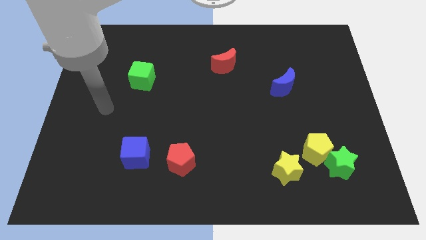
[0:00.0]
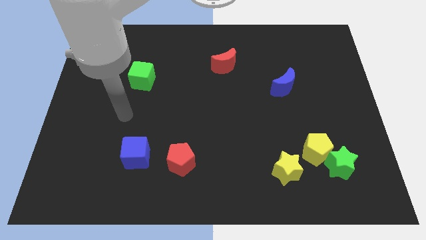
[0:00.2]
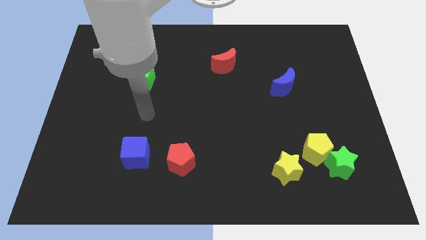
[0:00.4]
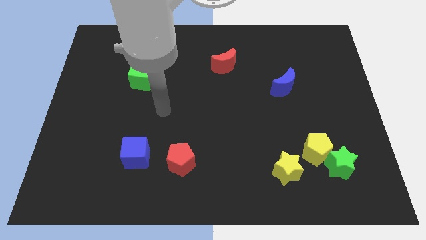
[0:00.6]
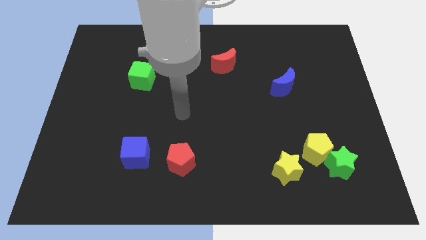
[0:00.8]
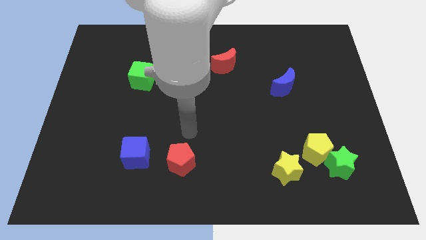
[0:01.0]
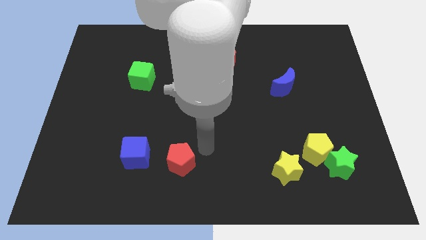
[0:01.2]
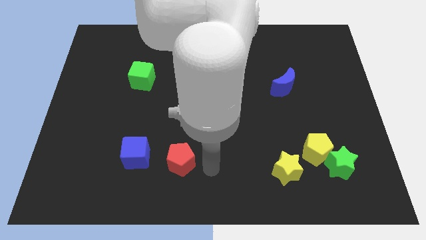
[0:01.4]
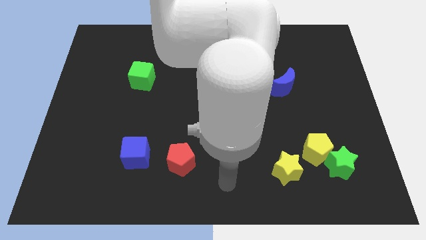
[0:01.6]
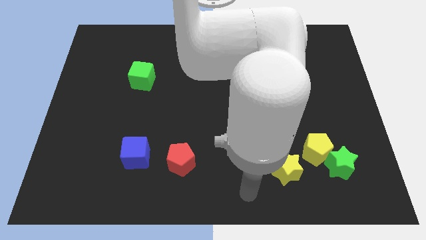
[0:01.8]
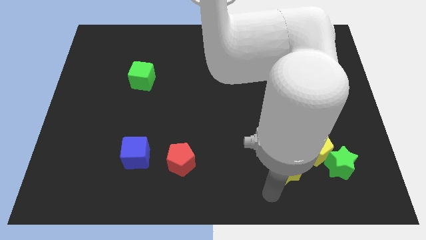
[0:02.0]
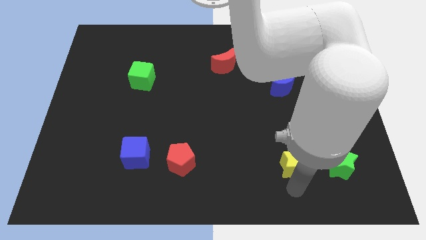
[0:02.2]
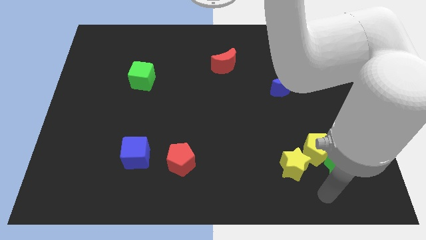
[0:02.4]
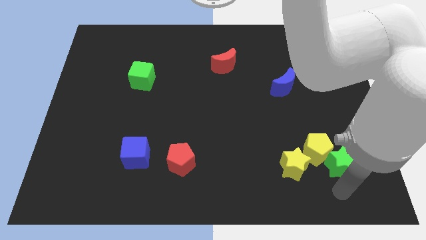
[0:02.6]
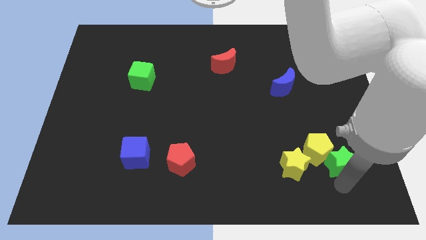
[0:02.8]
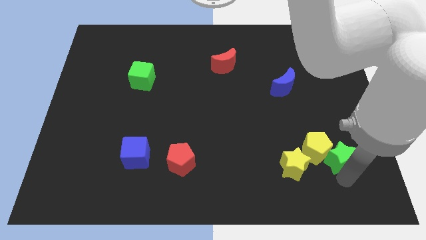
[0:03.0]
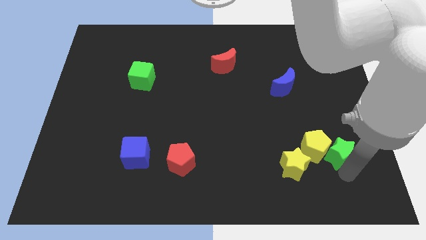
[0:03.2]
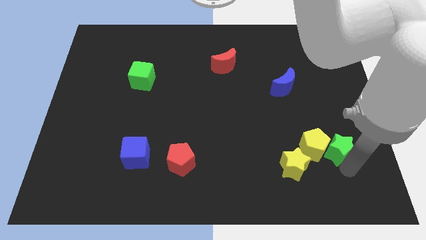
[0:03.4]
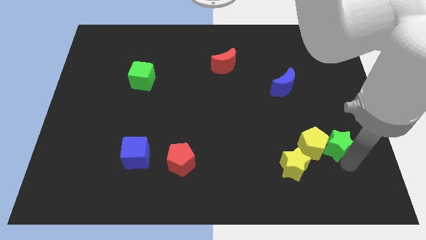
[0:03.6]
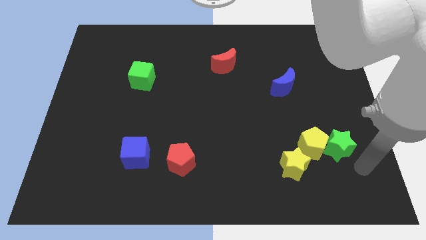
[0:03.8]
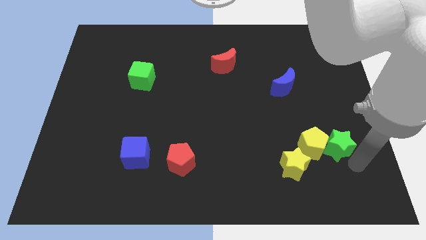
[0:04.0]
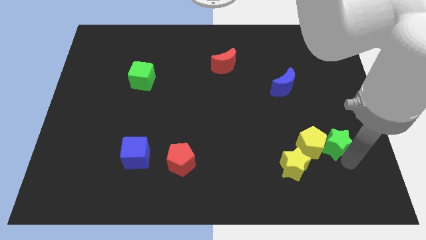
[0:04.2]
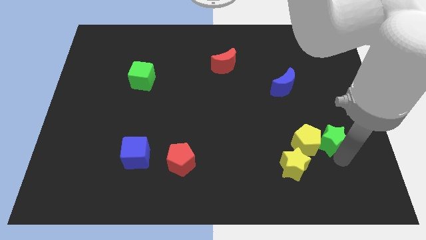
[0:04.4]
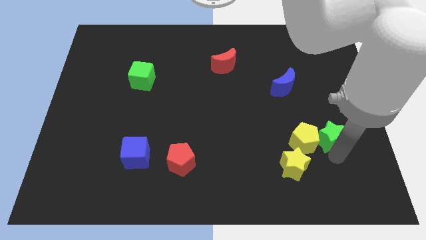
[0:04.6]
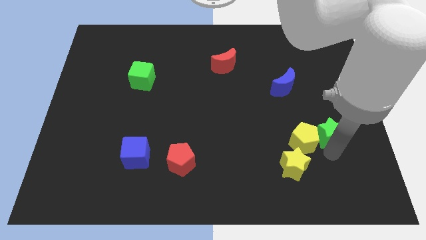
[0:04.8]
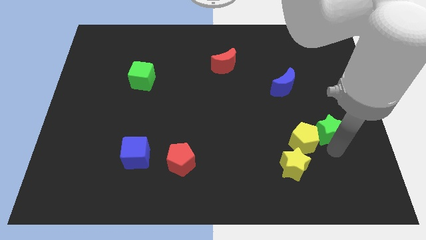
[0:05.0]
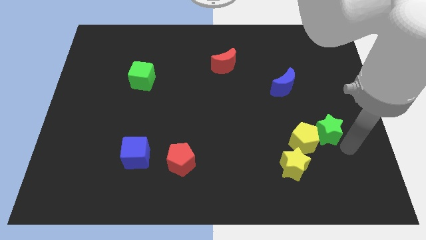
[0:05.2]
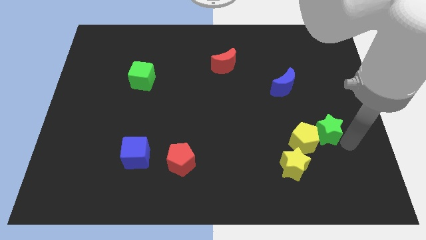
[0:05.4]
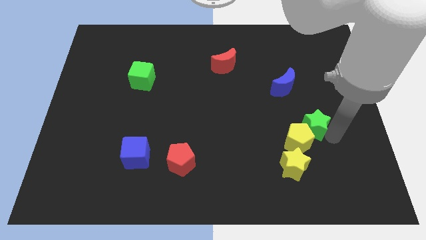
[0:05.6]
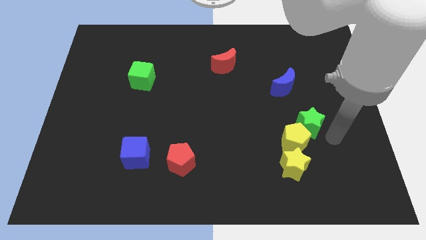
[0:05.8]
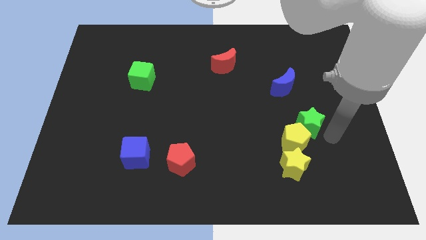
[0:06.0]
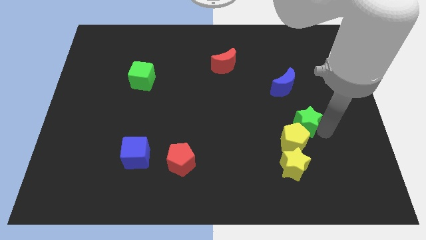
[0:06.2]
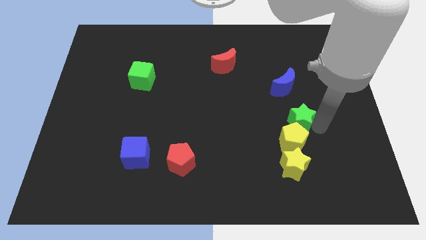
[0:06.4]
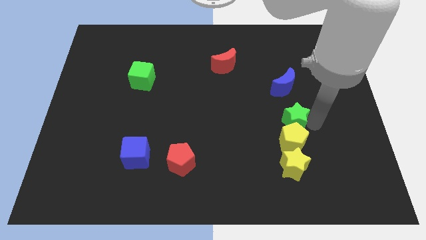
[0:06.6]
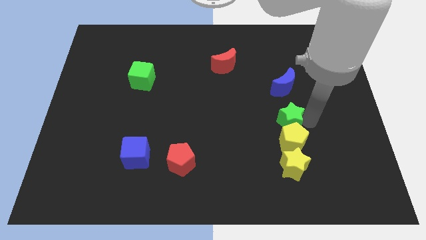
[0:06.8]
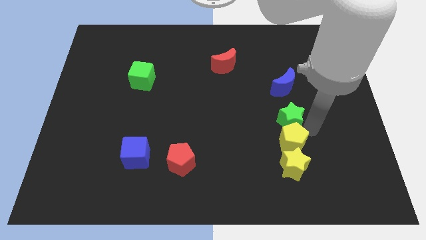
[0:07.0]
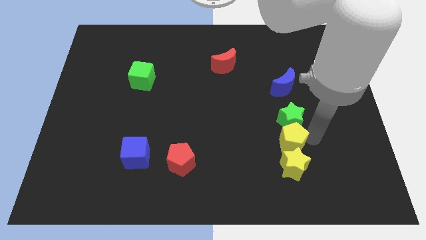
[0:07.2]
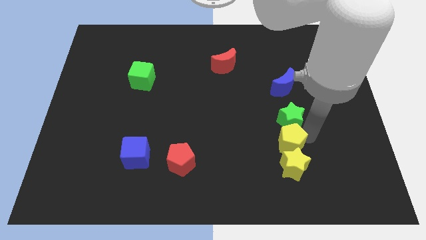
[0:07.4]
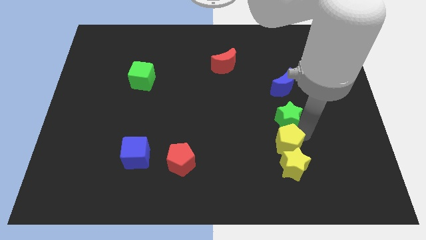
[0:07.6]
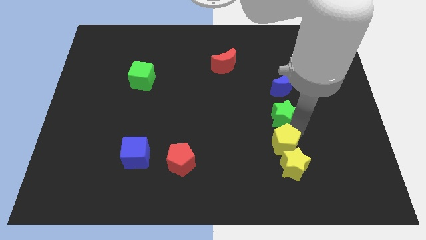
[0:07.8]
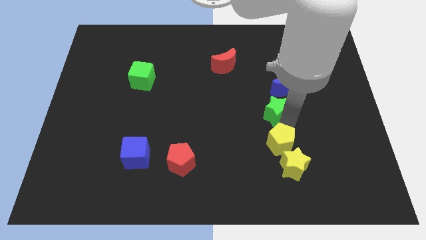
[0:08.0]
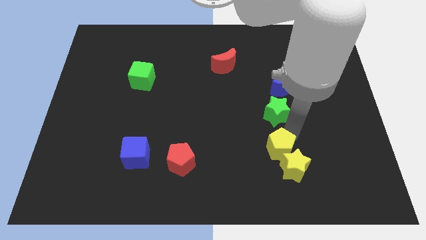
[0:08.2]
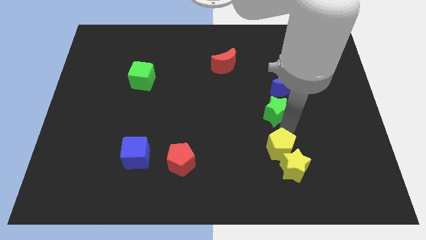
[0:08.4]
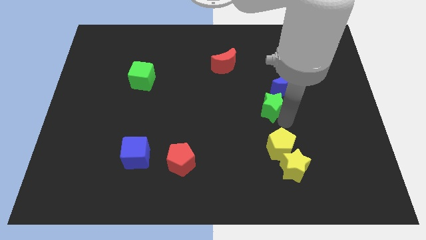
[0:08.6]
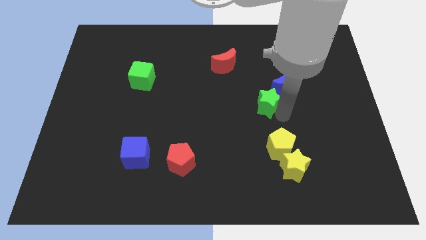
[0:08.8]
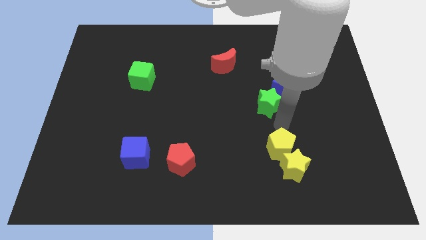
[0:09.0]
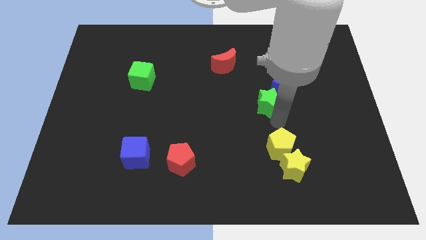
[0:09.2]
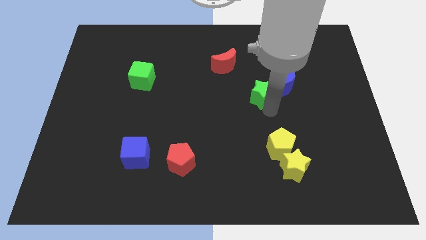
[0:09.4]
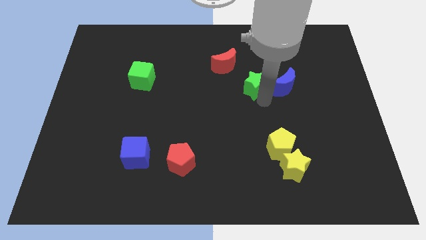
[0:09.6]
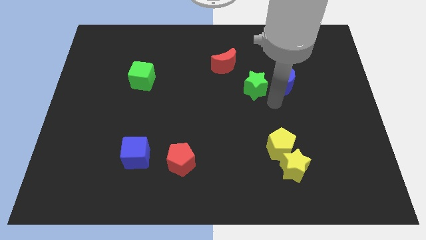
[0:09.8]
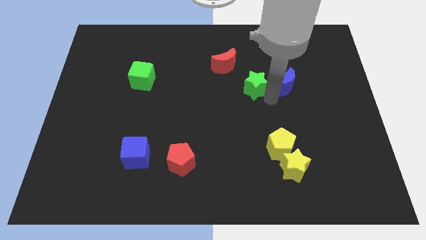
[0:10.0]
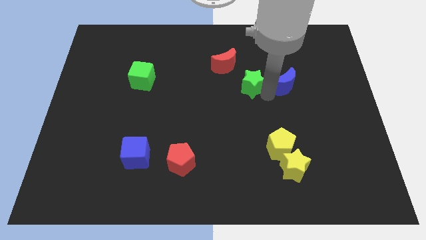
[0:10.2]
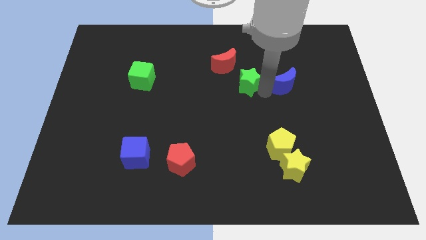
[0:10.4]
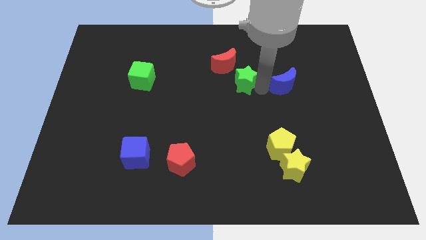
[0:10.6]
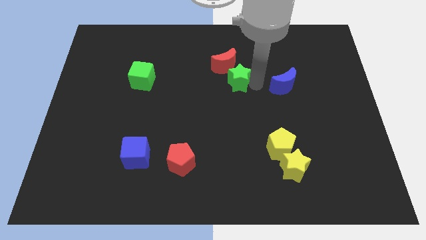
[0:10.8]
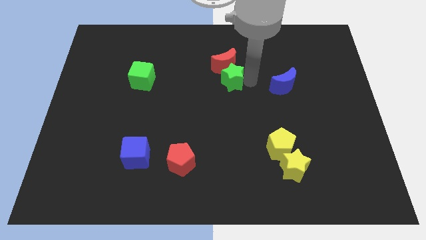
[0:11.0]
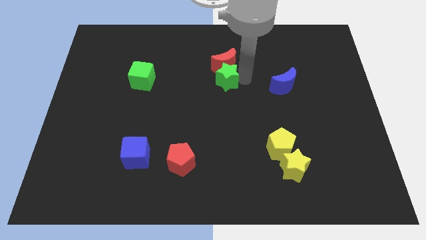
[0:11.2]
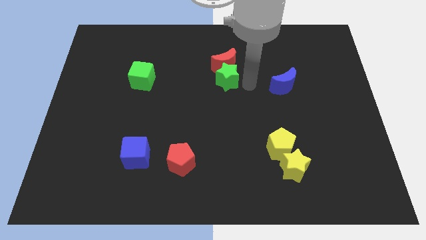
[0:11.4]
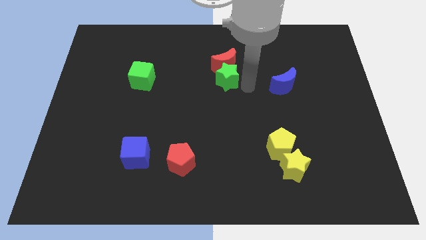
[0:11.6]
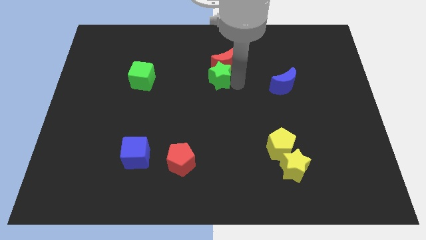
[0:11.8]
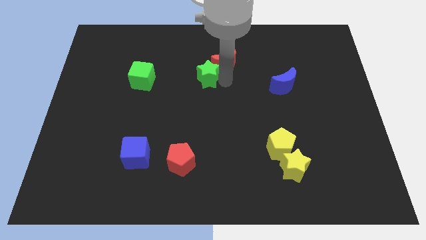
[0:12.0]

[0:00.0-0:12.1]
move the green star to the left of the red moon

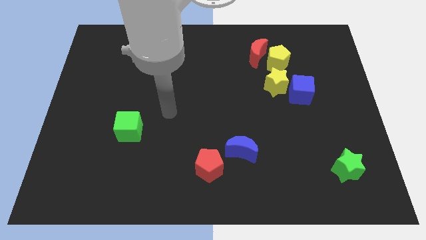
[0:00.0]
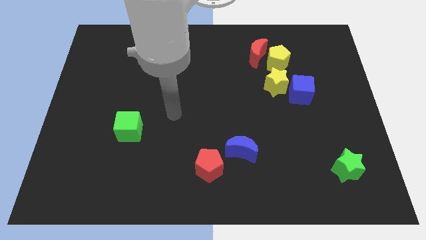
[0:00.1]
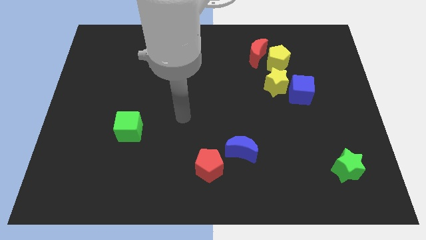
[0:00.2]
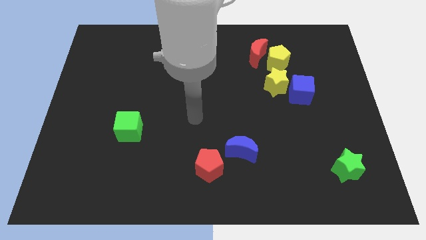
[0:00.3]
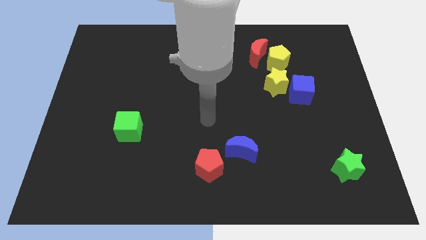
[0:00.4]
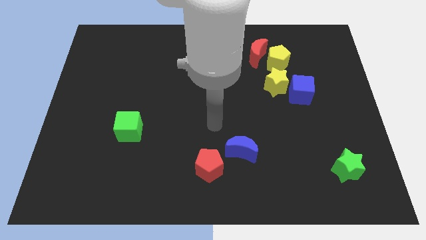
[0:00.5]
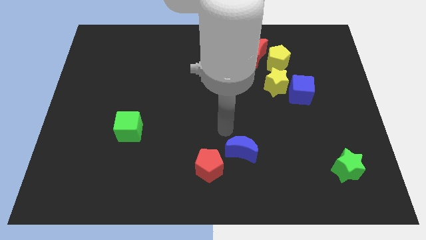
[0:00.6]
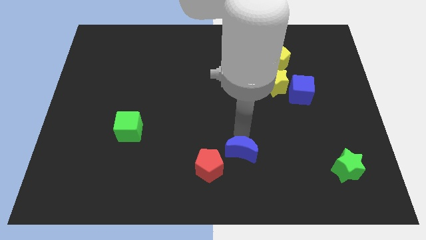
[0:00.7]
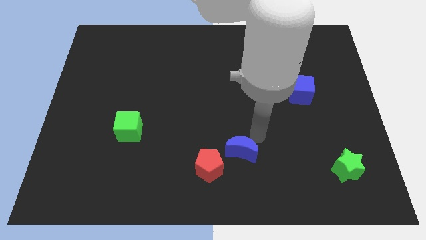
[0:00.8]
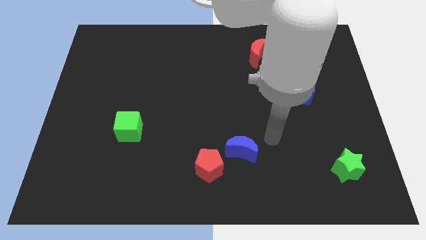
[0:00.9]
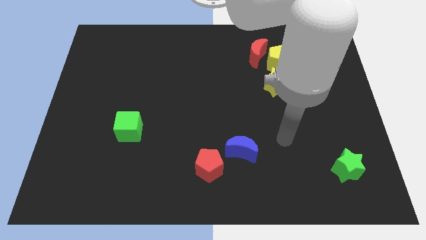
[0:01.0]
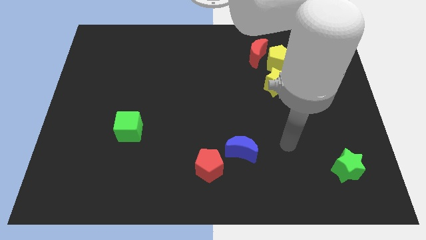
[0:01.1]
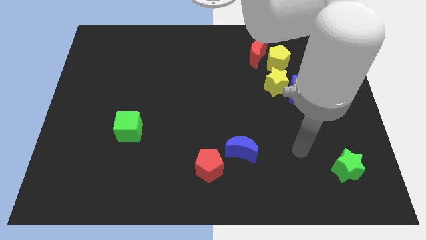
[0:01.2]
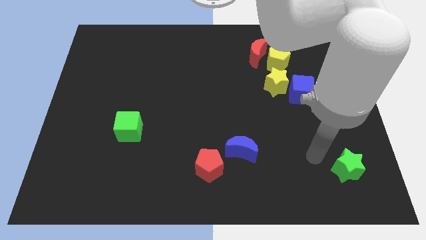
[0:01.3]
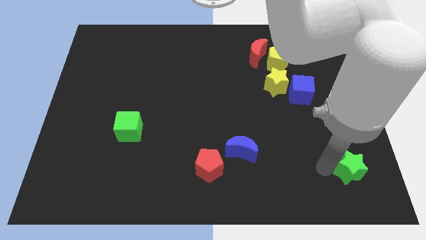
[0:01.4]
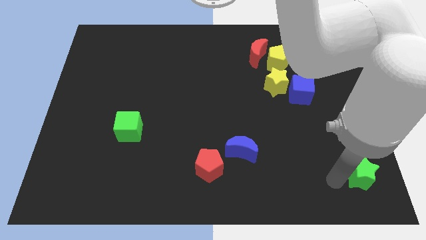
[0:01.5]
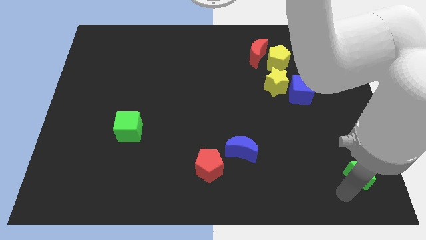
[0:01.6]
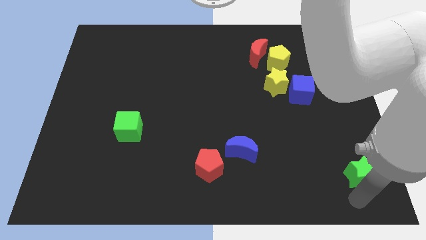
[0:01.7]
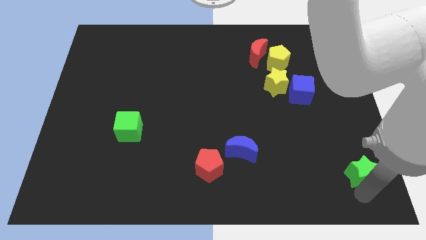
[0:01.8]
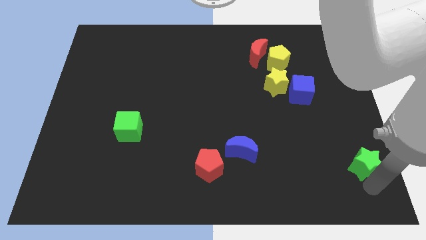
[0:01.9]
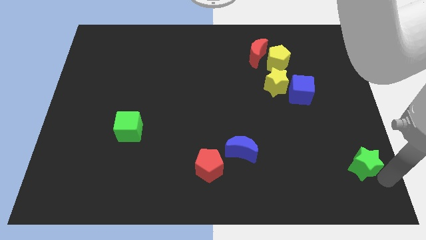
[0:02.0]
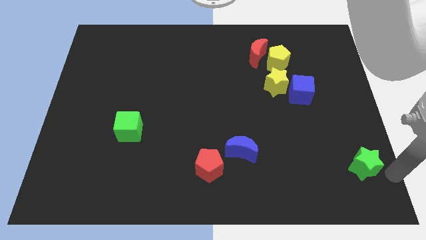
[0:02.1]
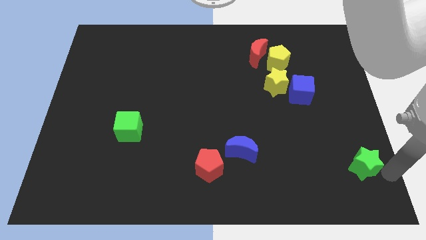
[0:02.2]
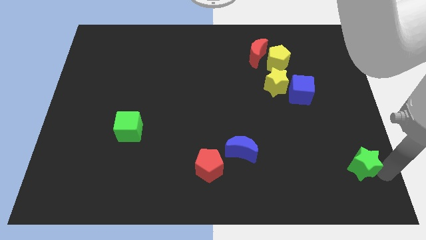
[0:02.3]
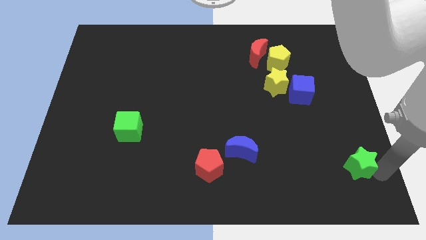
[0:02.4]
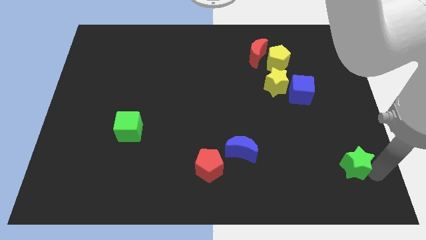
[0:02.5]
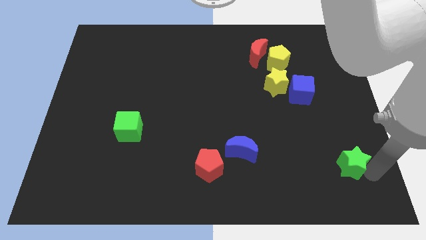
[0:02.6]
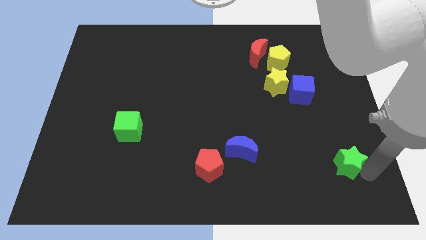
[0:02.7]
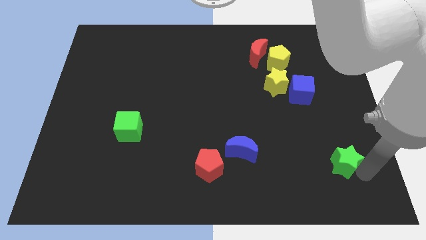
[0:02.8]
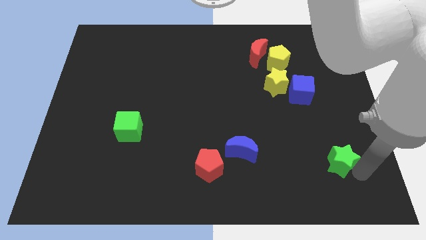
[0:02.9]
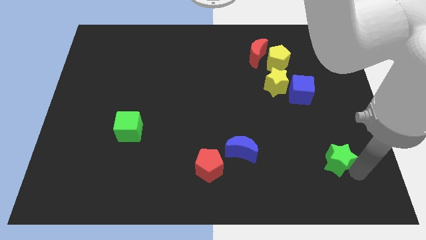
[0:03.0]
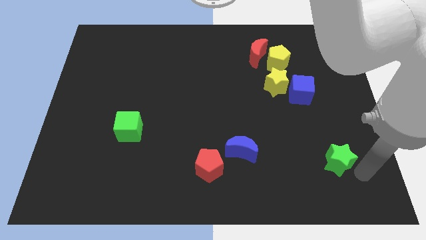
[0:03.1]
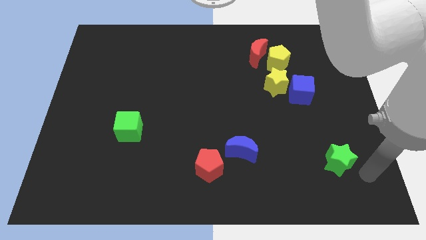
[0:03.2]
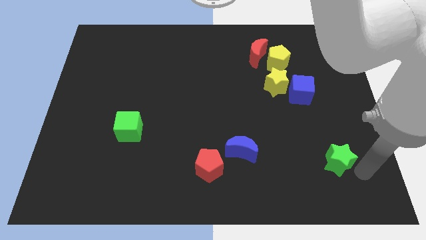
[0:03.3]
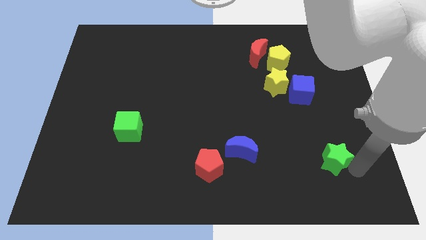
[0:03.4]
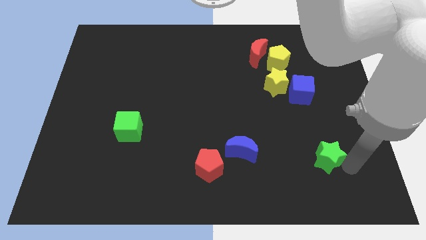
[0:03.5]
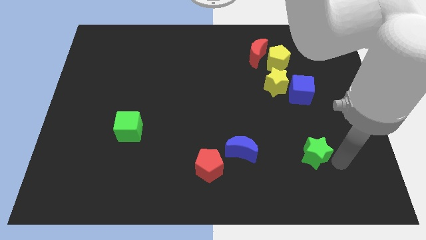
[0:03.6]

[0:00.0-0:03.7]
put the green star right of the blue moon
